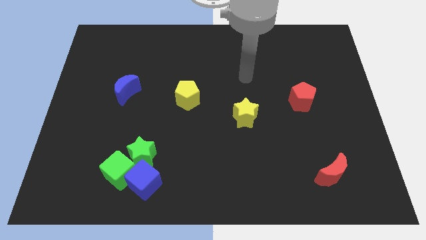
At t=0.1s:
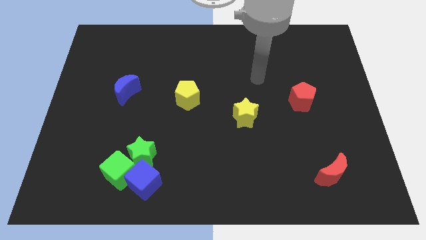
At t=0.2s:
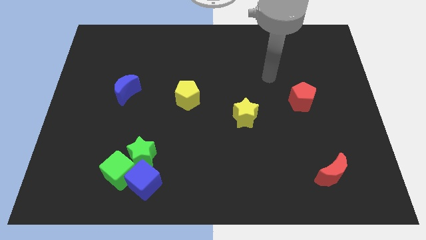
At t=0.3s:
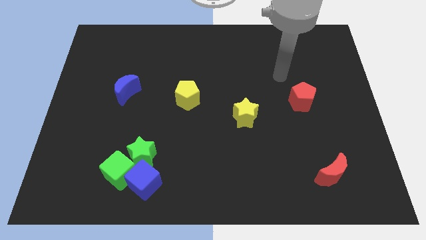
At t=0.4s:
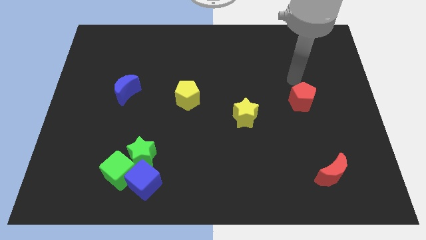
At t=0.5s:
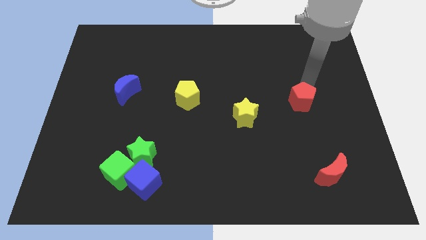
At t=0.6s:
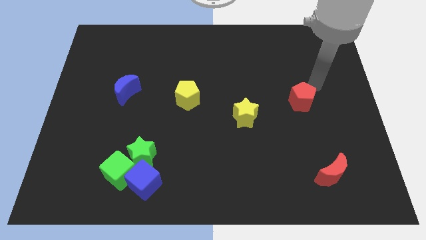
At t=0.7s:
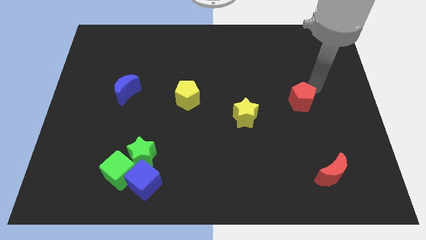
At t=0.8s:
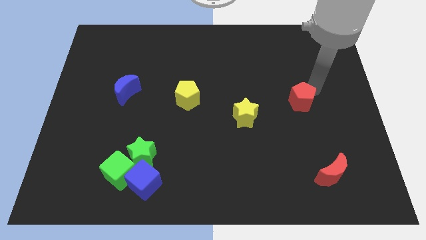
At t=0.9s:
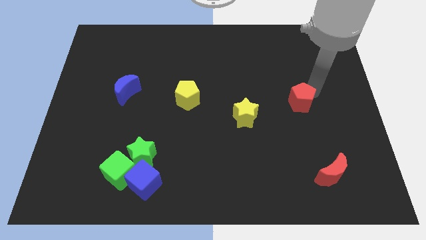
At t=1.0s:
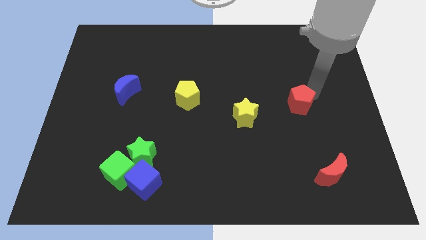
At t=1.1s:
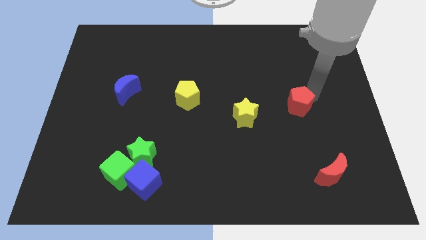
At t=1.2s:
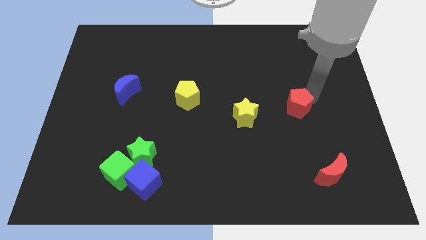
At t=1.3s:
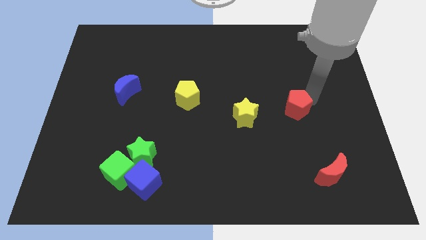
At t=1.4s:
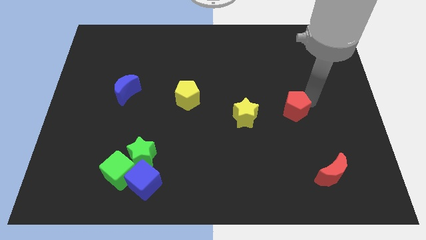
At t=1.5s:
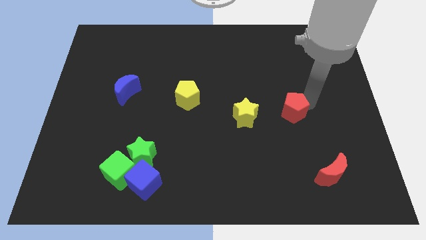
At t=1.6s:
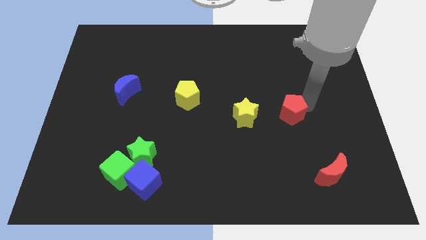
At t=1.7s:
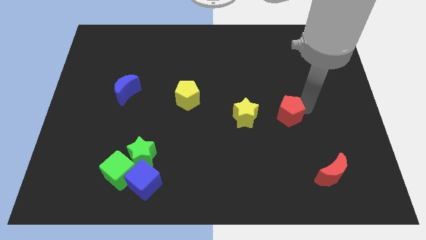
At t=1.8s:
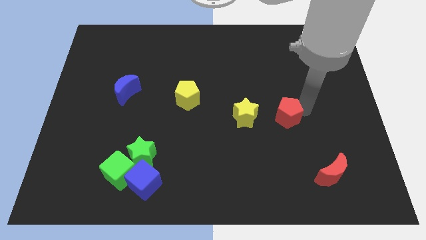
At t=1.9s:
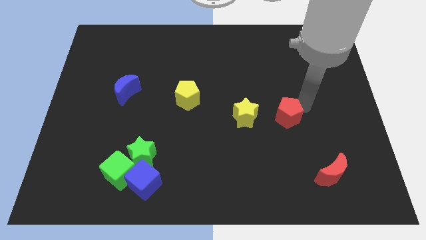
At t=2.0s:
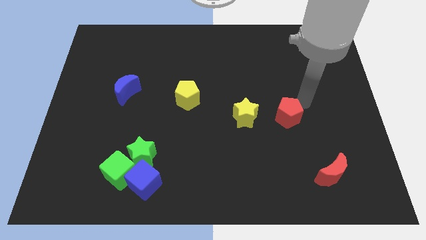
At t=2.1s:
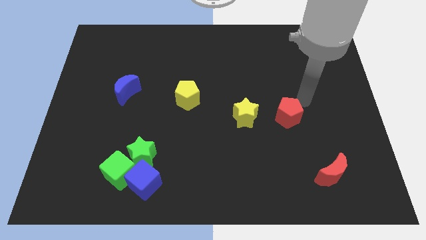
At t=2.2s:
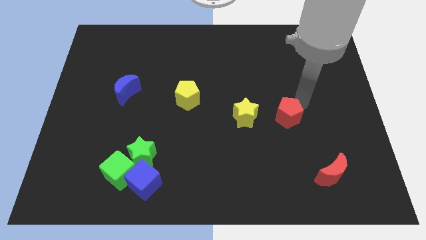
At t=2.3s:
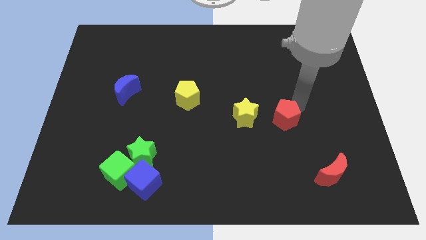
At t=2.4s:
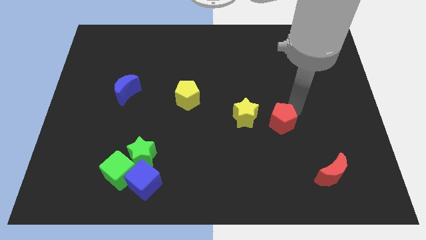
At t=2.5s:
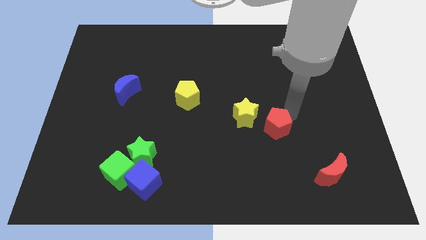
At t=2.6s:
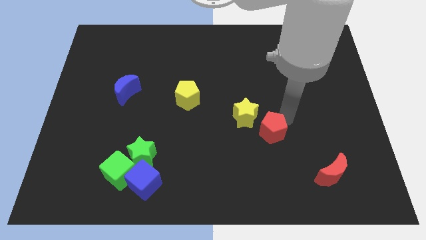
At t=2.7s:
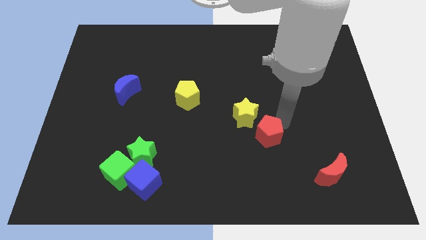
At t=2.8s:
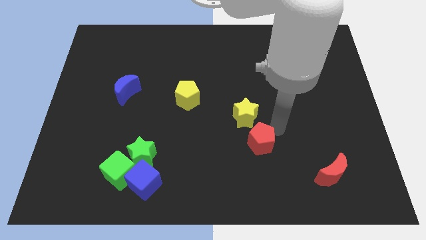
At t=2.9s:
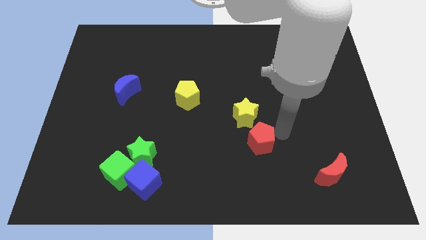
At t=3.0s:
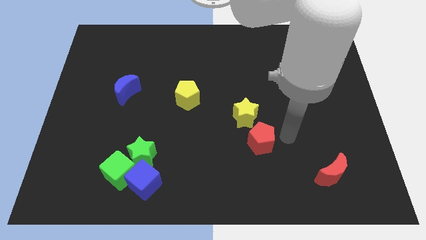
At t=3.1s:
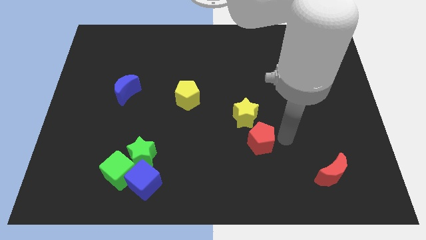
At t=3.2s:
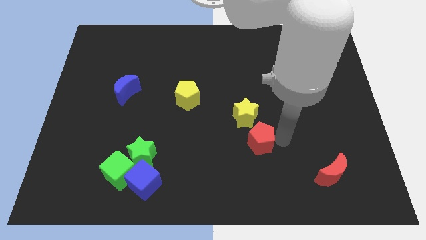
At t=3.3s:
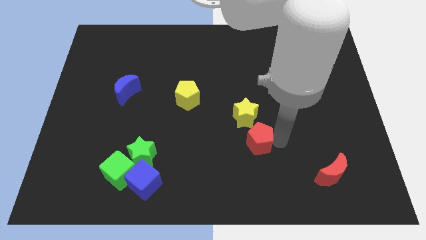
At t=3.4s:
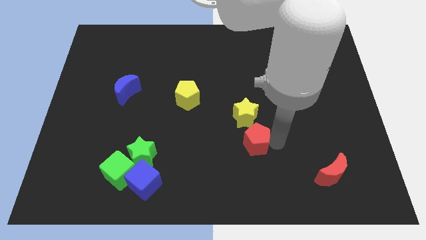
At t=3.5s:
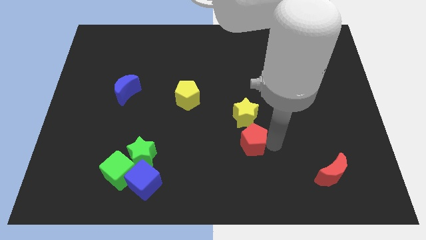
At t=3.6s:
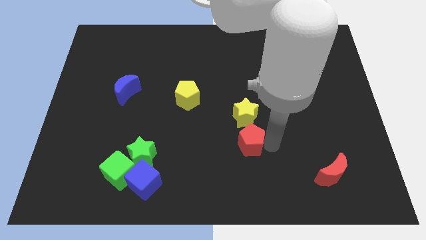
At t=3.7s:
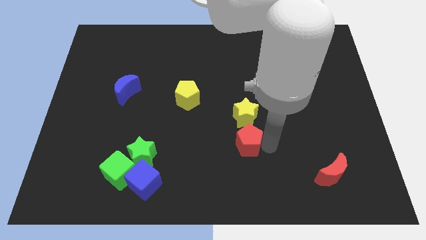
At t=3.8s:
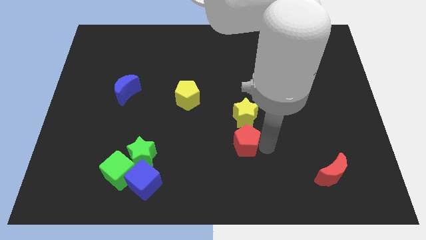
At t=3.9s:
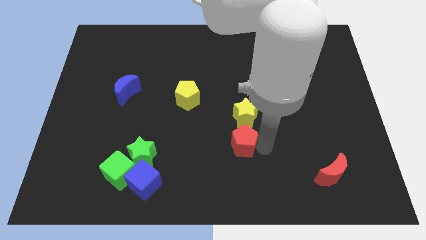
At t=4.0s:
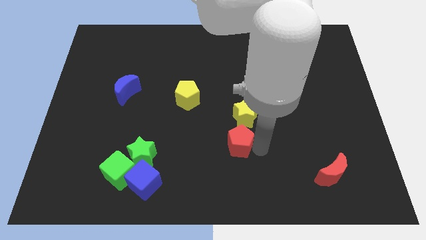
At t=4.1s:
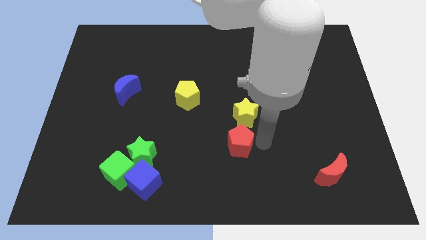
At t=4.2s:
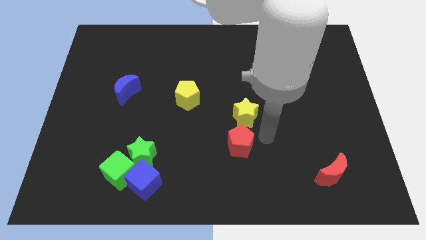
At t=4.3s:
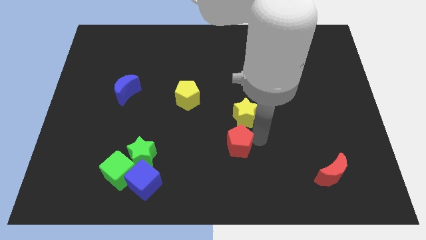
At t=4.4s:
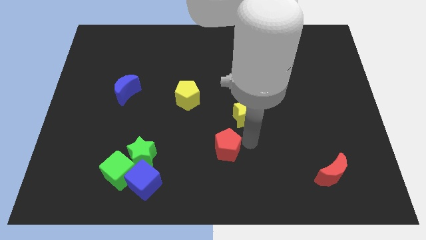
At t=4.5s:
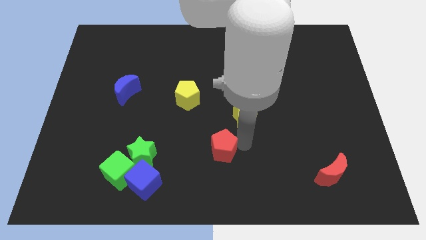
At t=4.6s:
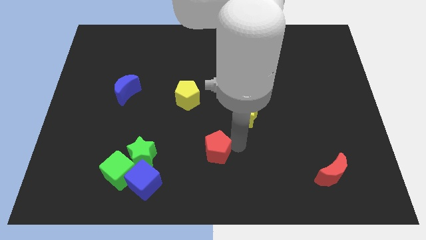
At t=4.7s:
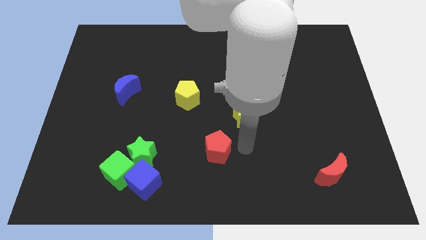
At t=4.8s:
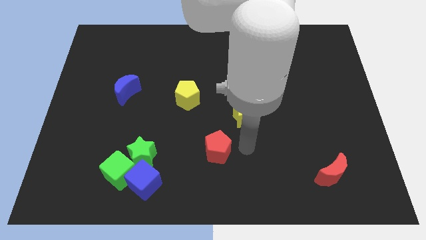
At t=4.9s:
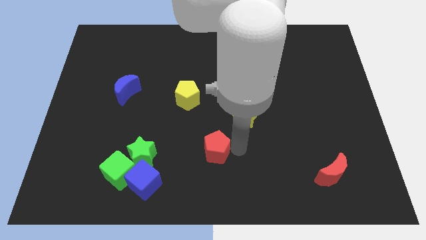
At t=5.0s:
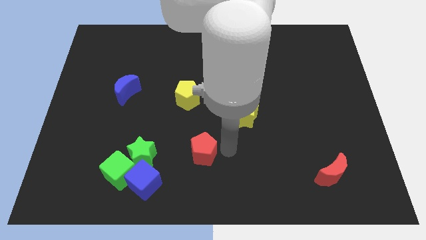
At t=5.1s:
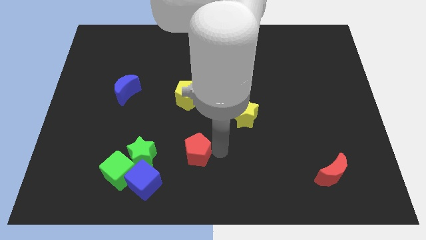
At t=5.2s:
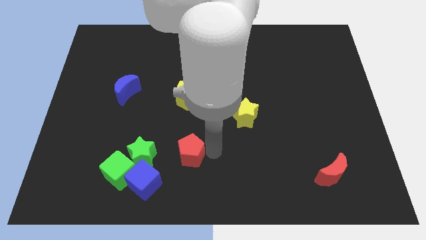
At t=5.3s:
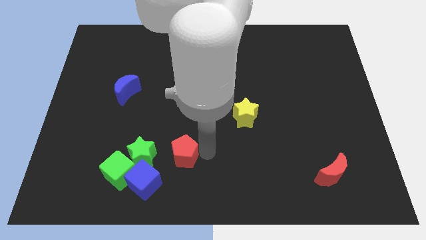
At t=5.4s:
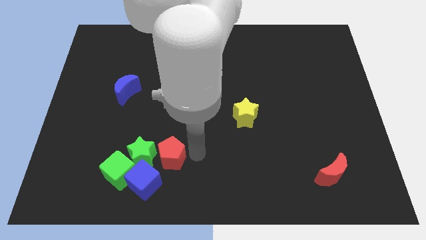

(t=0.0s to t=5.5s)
move the red pentagon close to the green star

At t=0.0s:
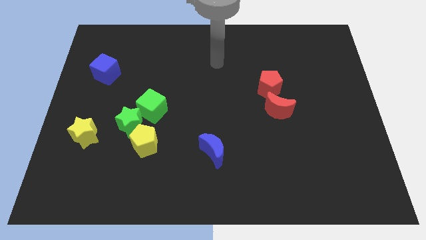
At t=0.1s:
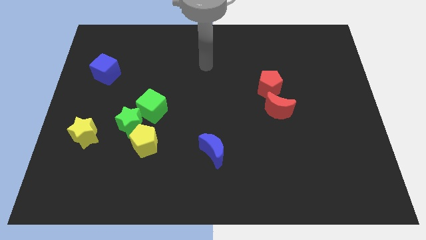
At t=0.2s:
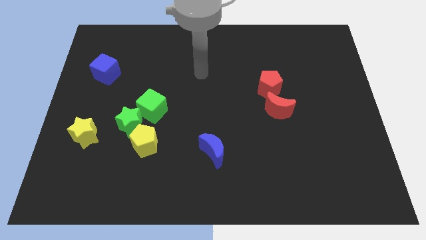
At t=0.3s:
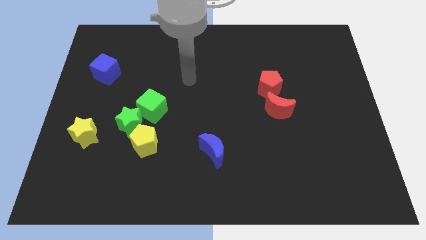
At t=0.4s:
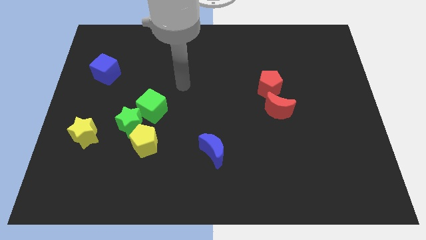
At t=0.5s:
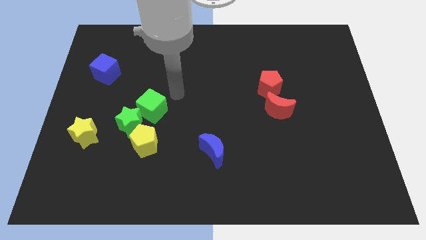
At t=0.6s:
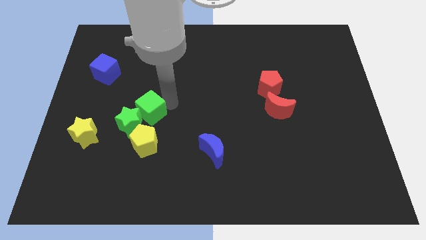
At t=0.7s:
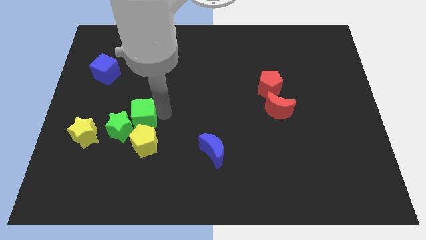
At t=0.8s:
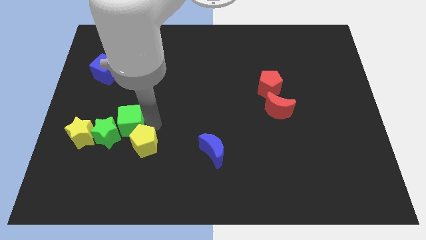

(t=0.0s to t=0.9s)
slide the green star towards the yellow star
